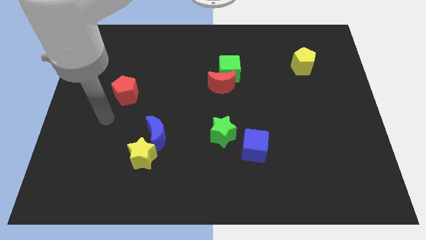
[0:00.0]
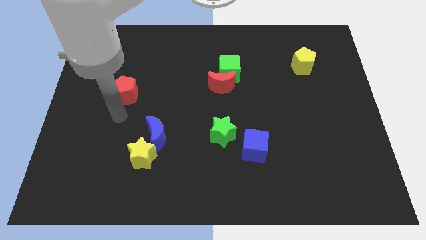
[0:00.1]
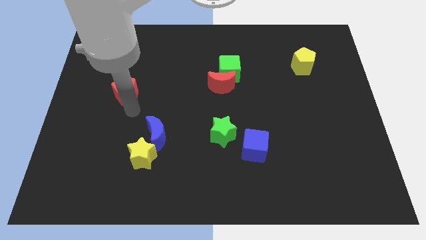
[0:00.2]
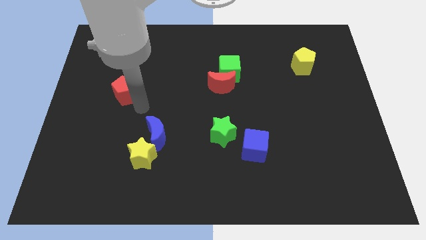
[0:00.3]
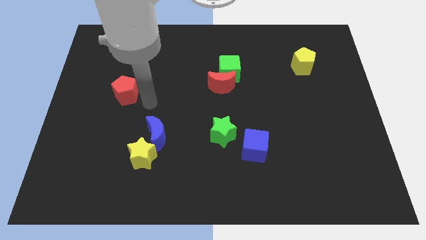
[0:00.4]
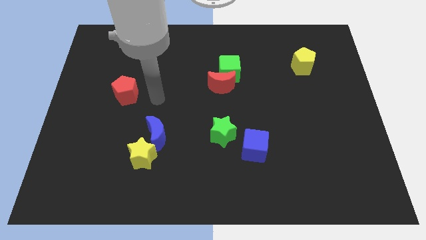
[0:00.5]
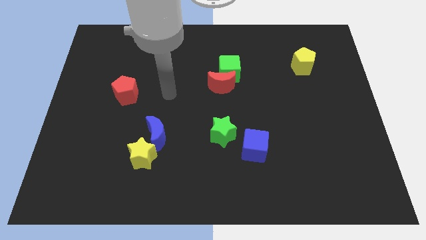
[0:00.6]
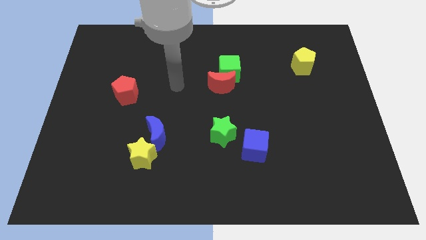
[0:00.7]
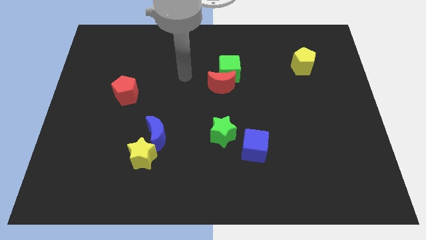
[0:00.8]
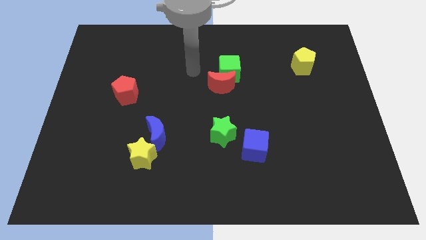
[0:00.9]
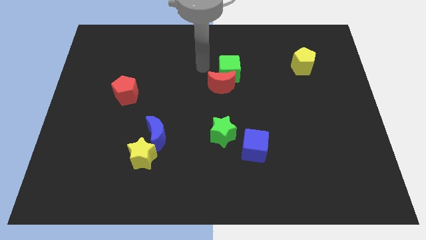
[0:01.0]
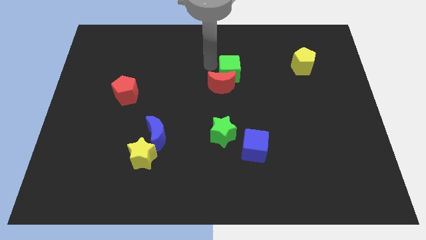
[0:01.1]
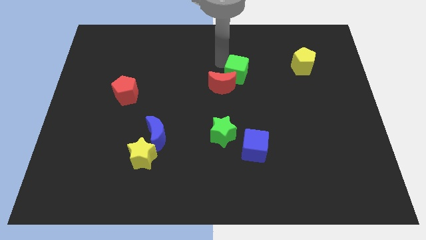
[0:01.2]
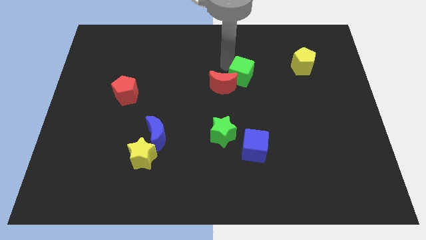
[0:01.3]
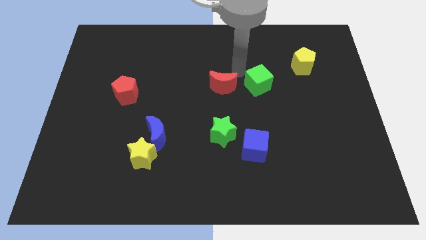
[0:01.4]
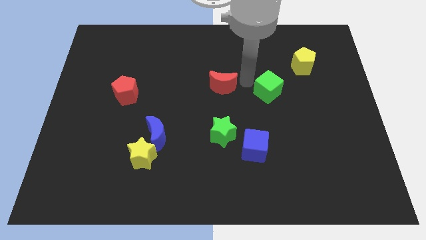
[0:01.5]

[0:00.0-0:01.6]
separate the red moon from the green cube

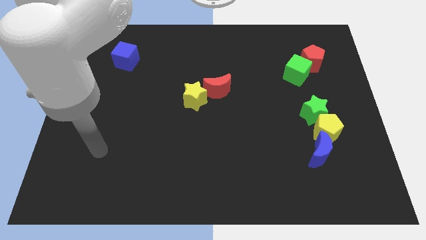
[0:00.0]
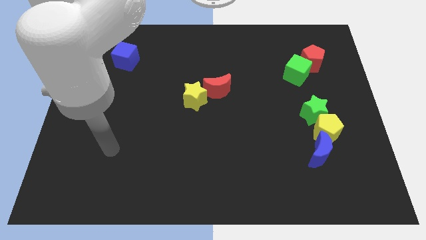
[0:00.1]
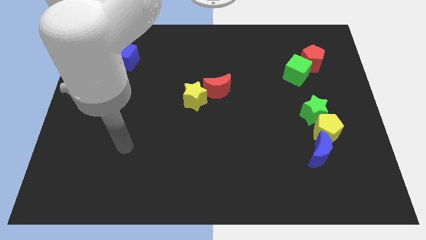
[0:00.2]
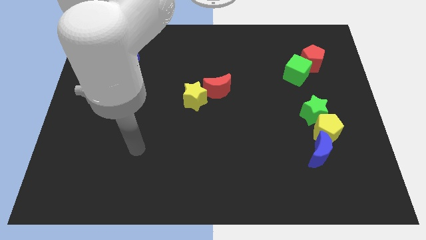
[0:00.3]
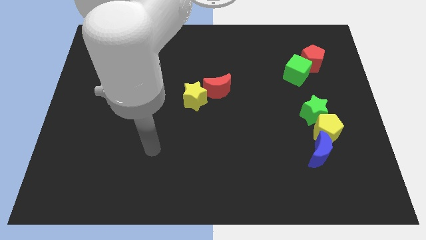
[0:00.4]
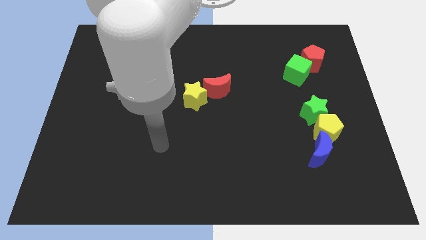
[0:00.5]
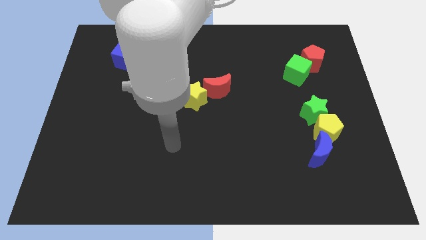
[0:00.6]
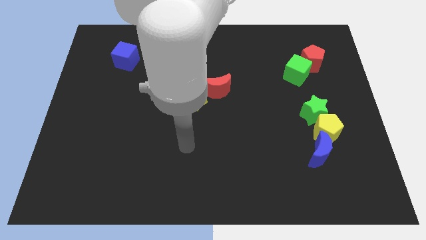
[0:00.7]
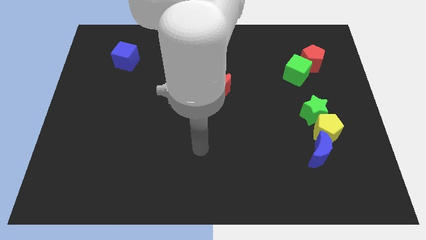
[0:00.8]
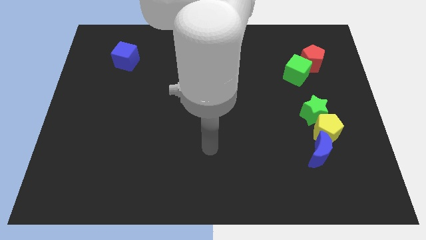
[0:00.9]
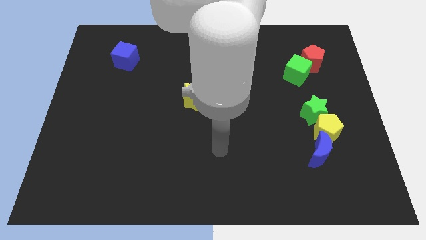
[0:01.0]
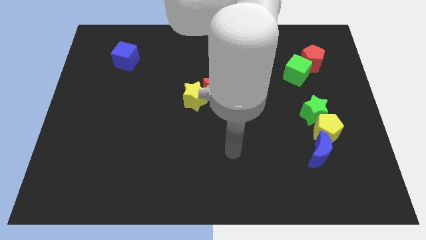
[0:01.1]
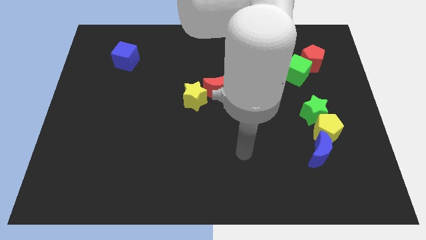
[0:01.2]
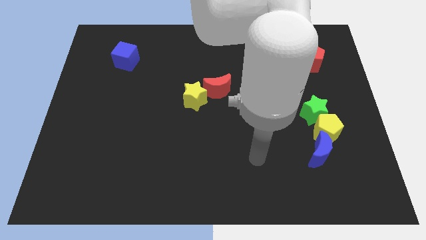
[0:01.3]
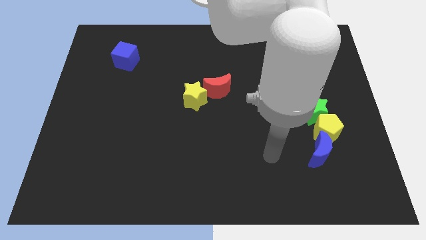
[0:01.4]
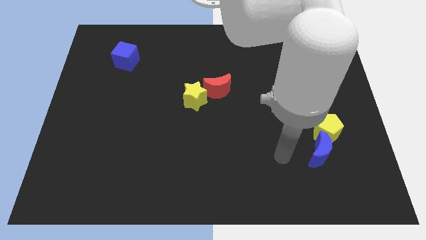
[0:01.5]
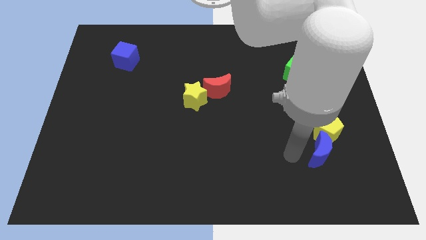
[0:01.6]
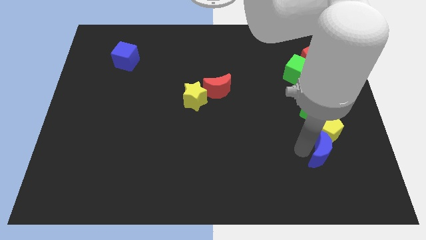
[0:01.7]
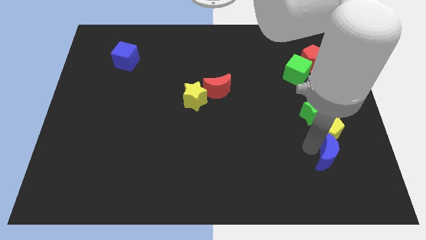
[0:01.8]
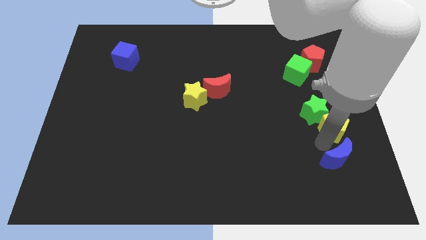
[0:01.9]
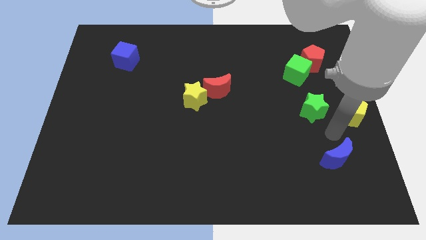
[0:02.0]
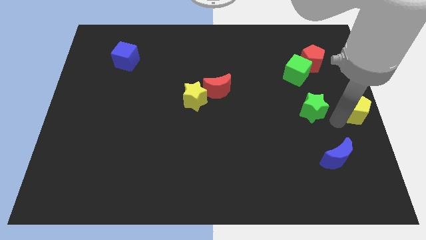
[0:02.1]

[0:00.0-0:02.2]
separate the green star from the yellow pentagon

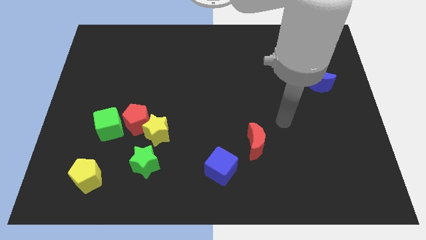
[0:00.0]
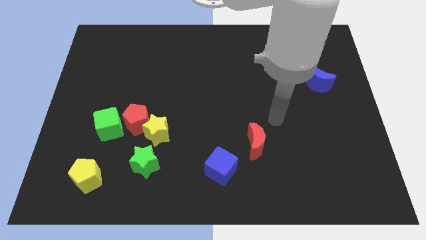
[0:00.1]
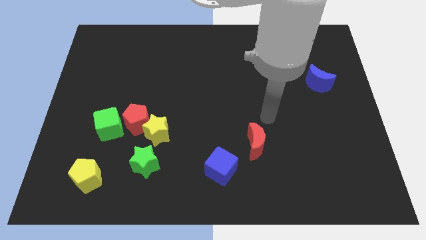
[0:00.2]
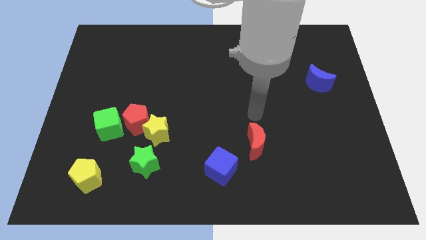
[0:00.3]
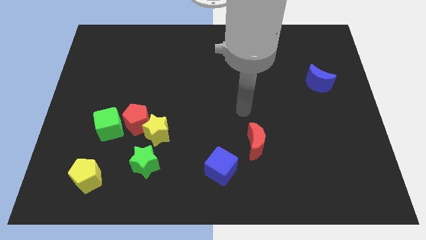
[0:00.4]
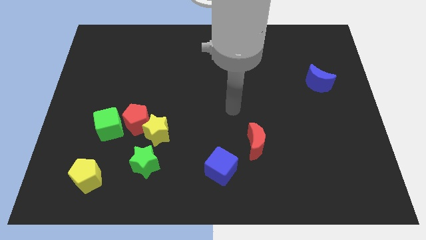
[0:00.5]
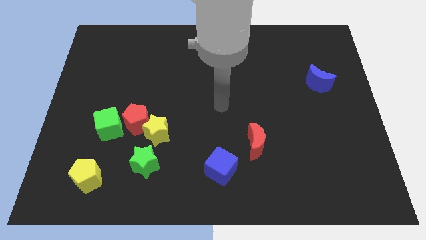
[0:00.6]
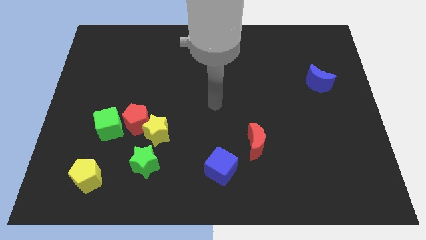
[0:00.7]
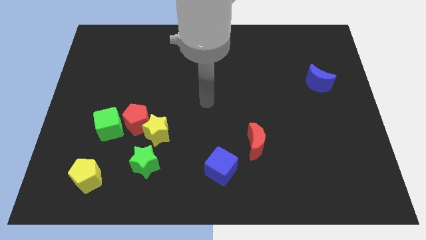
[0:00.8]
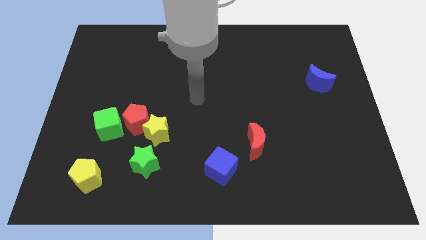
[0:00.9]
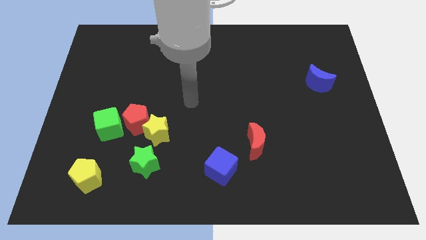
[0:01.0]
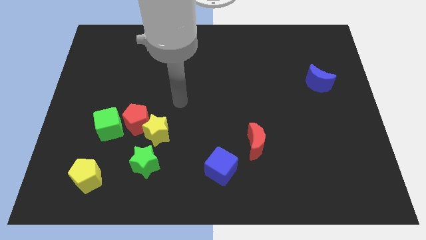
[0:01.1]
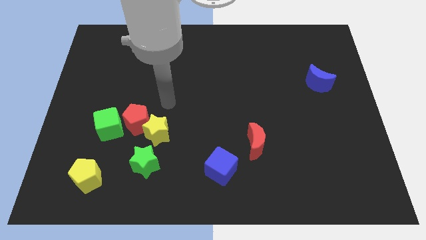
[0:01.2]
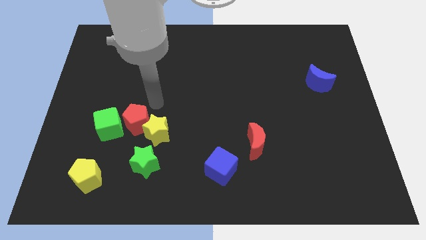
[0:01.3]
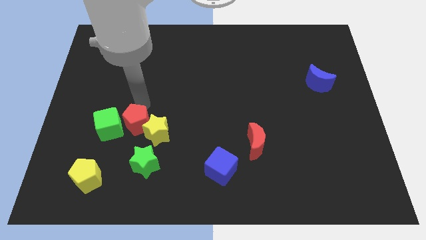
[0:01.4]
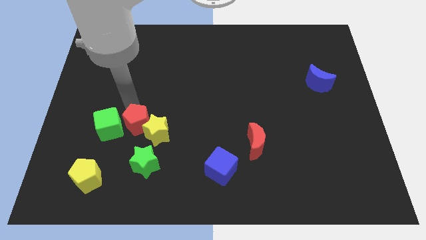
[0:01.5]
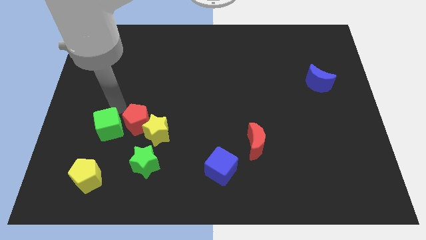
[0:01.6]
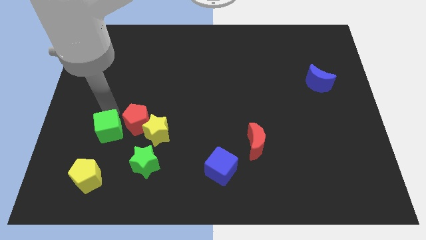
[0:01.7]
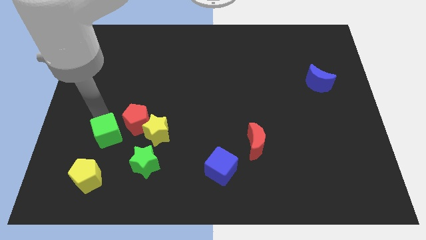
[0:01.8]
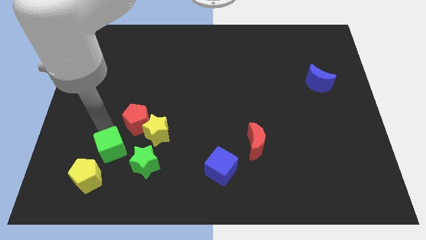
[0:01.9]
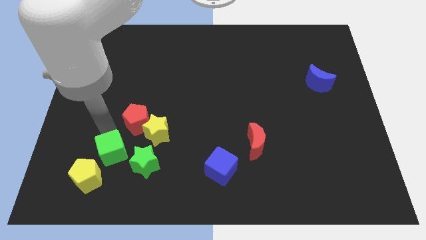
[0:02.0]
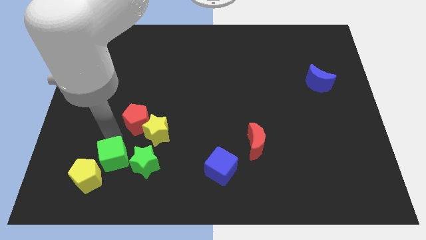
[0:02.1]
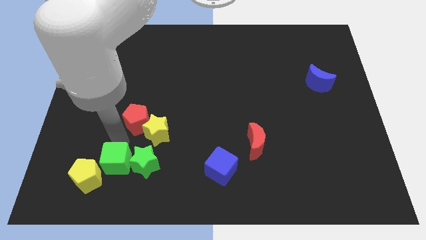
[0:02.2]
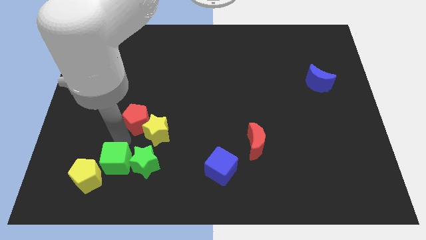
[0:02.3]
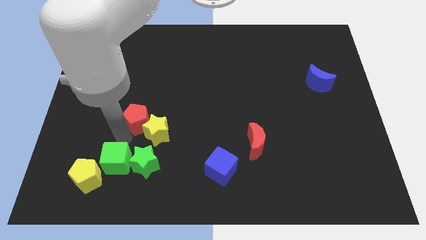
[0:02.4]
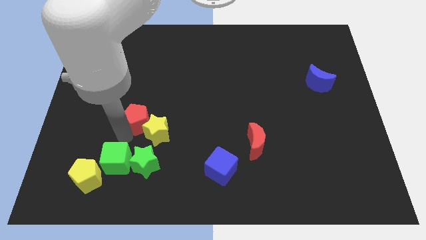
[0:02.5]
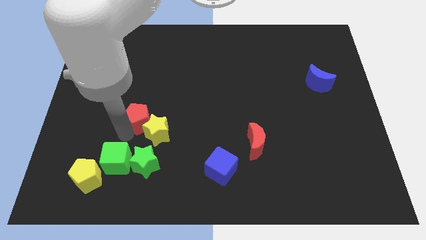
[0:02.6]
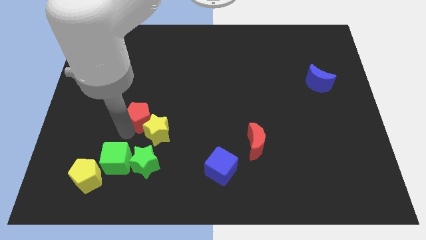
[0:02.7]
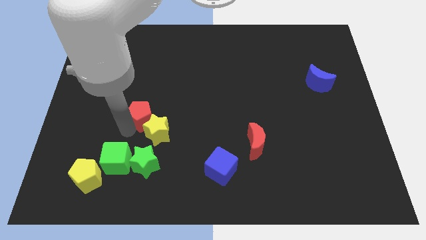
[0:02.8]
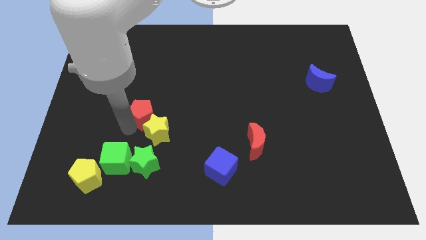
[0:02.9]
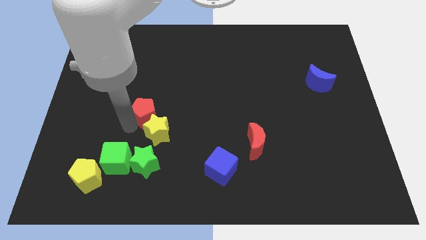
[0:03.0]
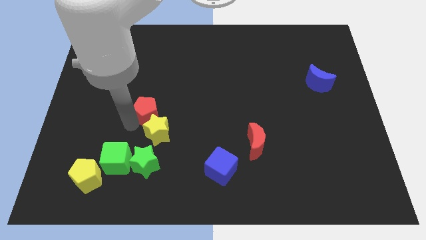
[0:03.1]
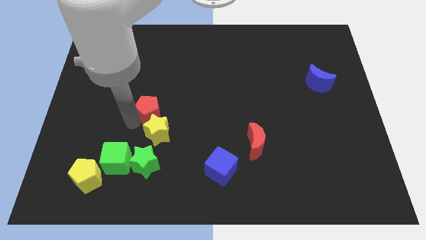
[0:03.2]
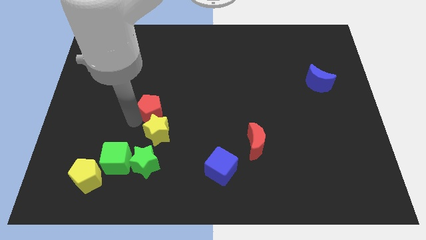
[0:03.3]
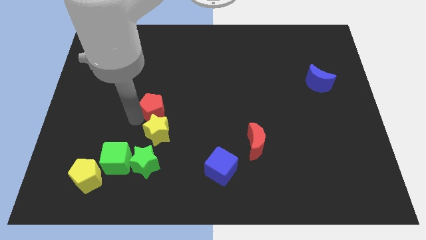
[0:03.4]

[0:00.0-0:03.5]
move the red pentagon away from the yellow star and green cube

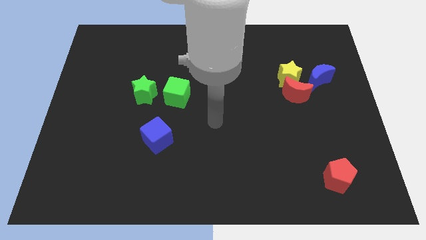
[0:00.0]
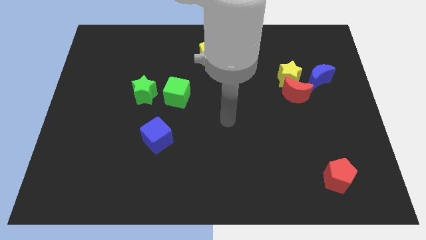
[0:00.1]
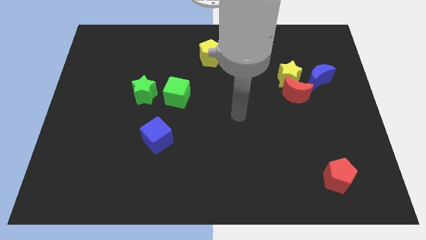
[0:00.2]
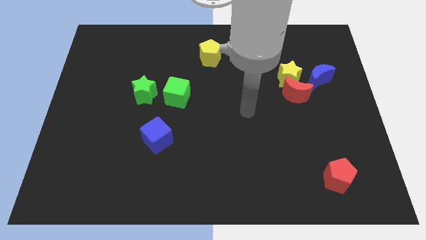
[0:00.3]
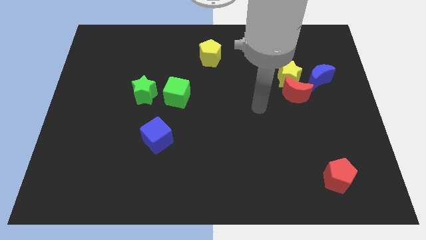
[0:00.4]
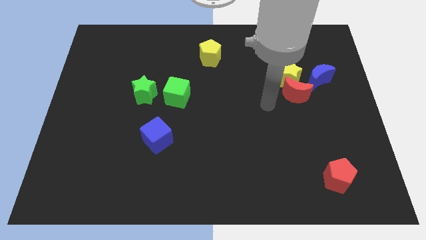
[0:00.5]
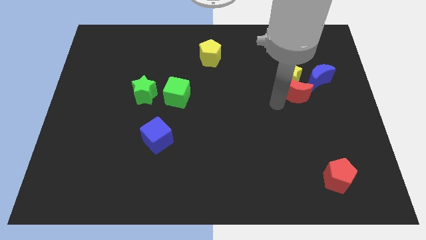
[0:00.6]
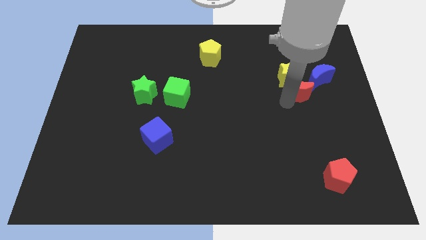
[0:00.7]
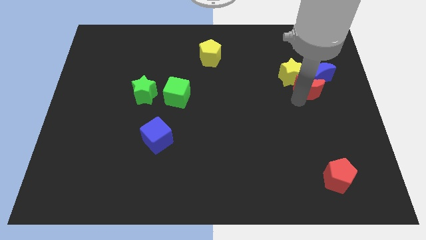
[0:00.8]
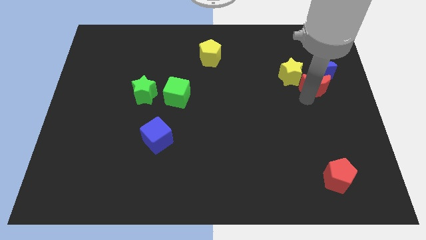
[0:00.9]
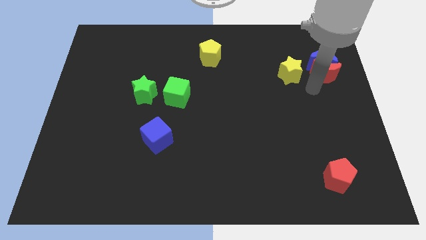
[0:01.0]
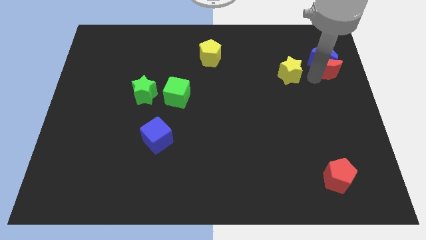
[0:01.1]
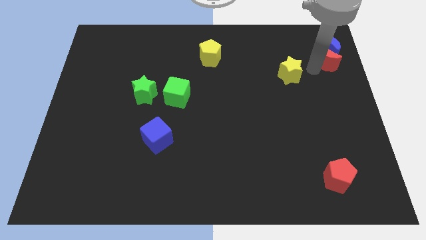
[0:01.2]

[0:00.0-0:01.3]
move the yellow star away from the red moon and blue moon

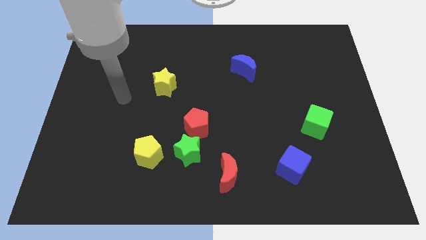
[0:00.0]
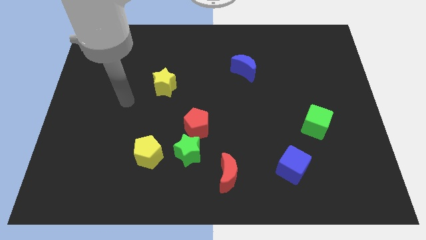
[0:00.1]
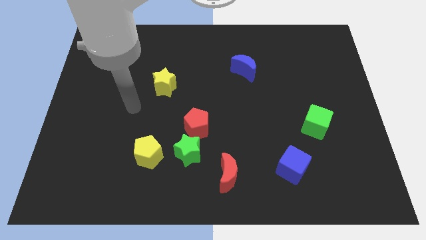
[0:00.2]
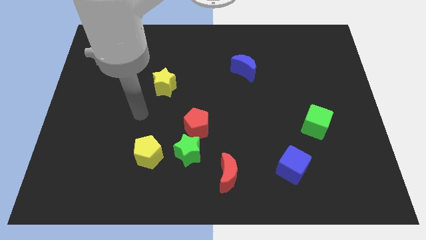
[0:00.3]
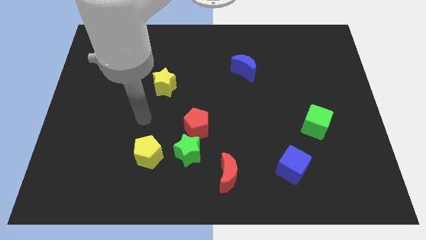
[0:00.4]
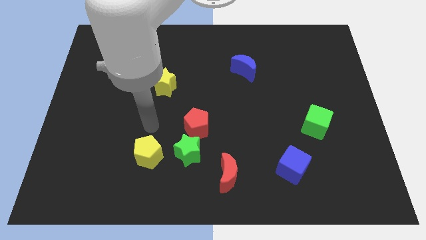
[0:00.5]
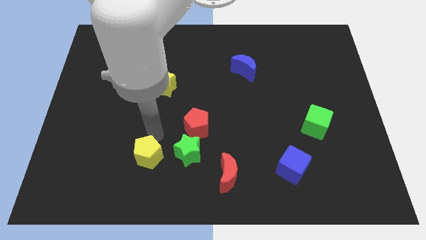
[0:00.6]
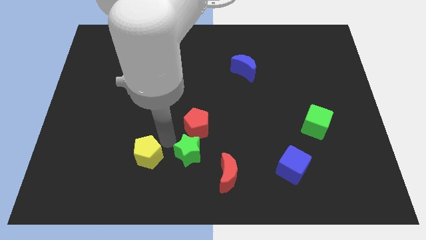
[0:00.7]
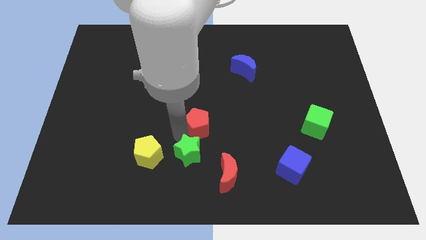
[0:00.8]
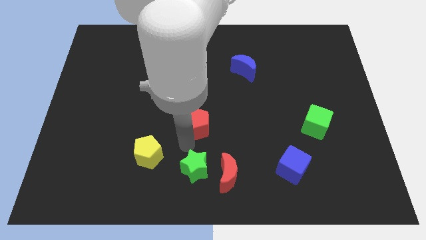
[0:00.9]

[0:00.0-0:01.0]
separate the red pentagon from the green star
